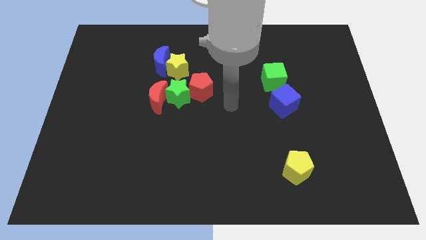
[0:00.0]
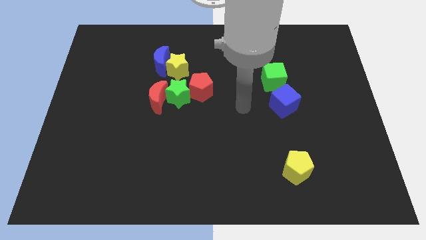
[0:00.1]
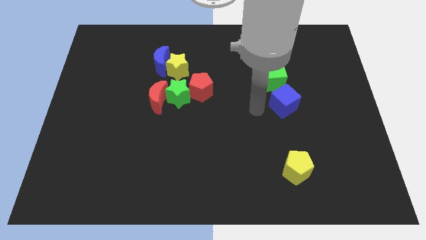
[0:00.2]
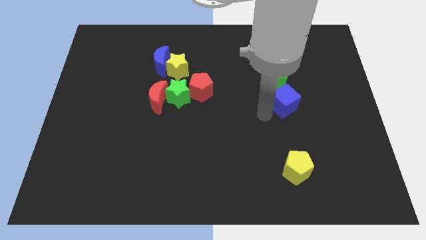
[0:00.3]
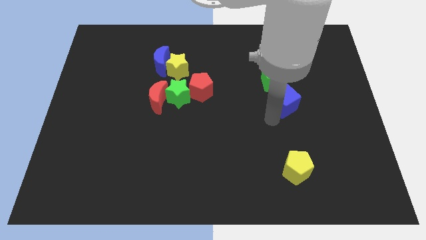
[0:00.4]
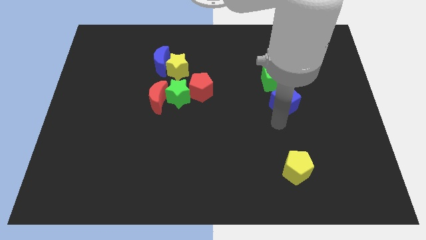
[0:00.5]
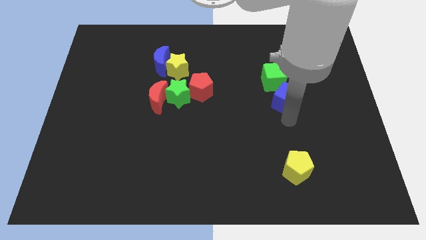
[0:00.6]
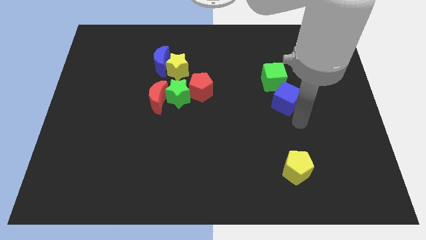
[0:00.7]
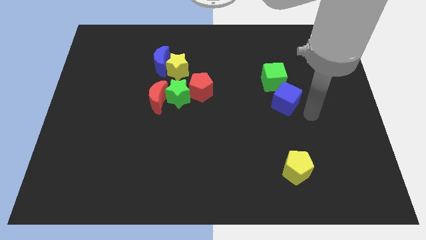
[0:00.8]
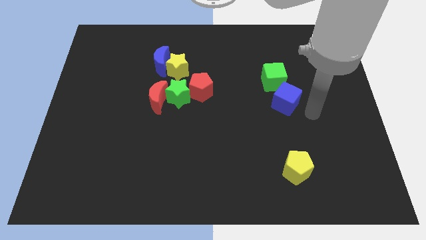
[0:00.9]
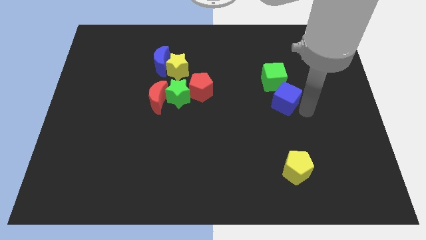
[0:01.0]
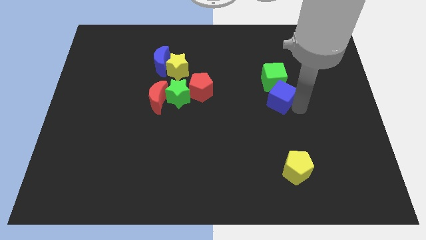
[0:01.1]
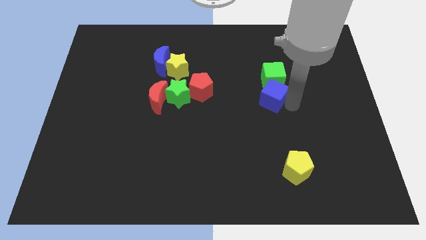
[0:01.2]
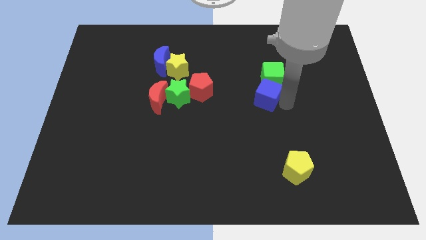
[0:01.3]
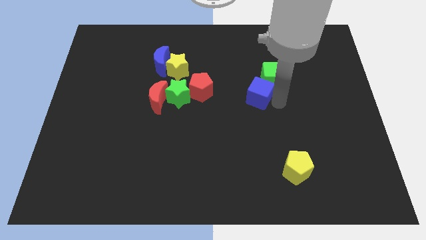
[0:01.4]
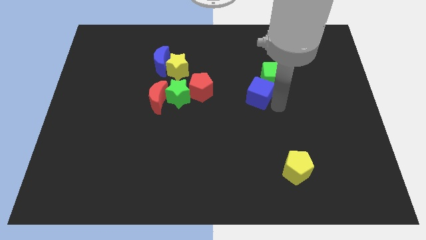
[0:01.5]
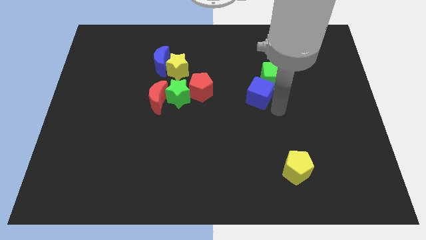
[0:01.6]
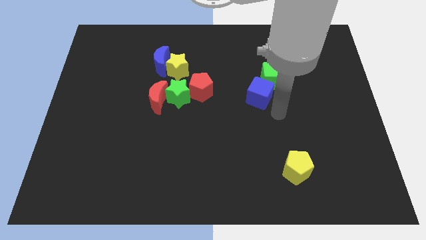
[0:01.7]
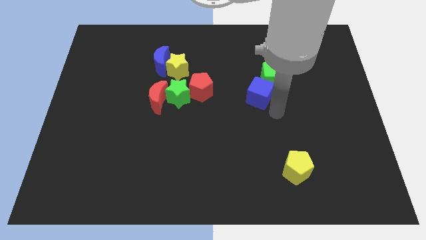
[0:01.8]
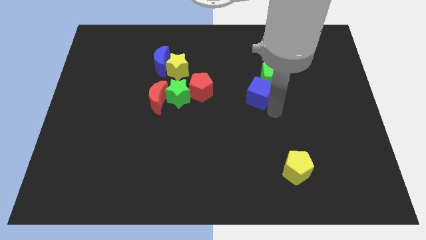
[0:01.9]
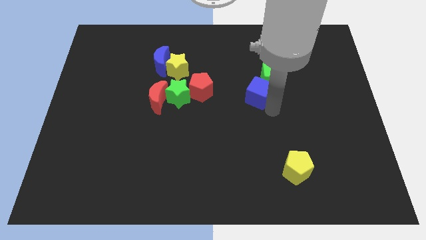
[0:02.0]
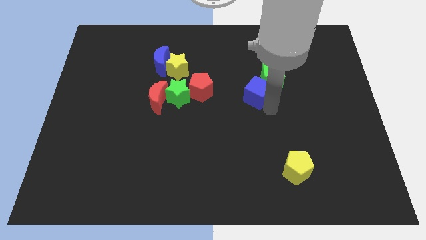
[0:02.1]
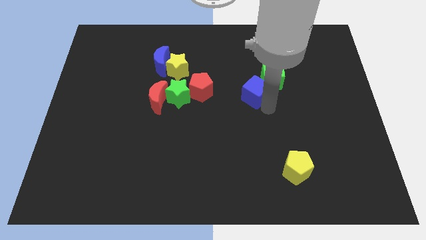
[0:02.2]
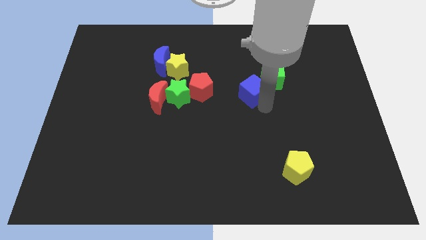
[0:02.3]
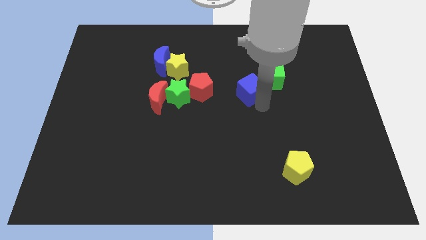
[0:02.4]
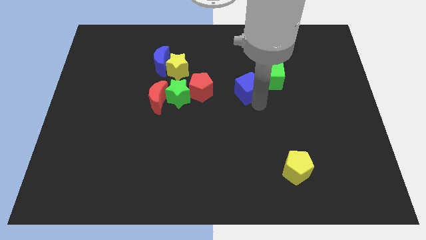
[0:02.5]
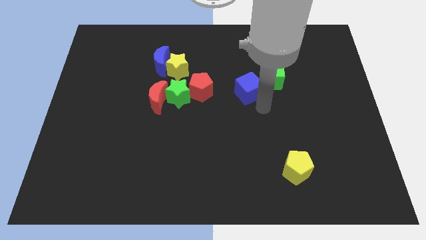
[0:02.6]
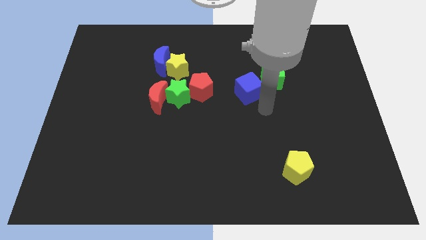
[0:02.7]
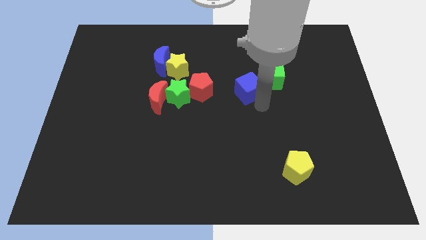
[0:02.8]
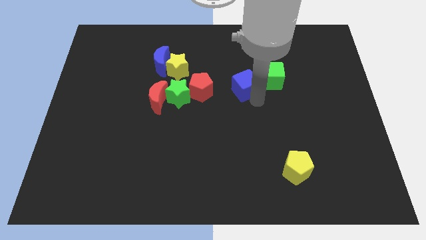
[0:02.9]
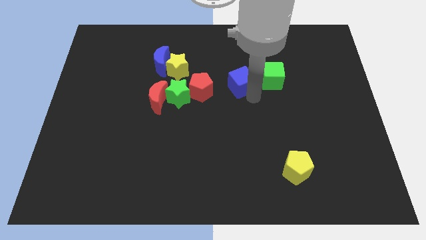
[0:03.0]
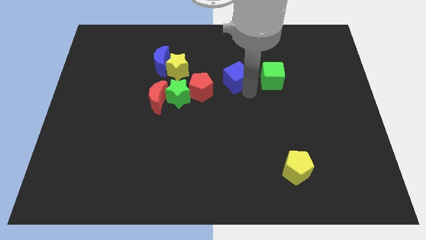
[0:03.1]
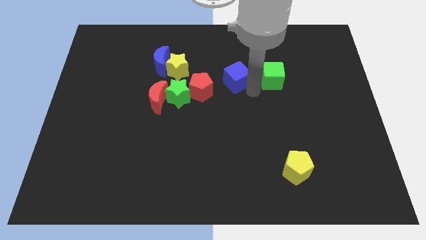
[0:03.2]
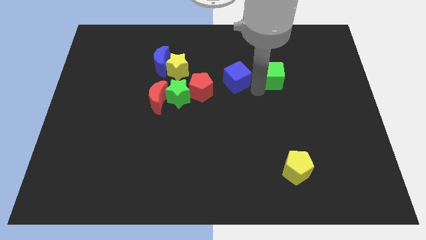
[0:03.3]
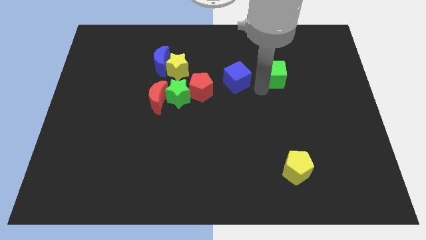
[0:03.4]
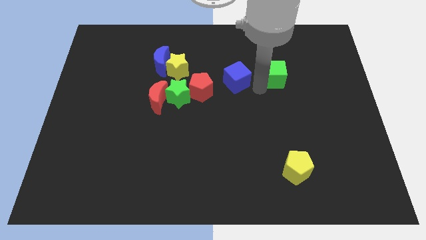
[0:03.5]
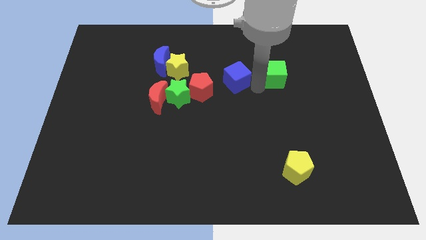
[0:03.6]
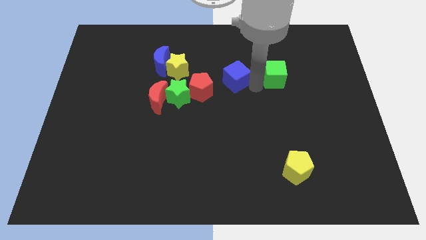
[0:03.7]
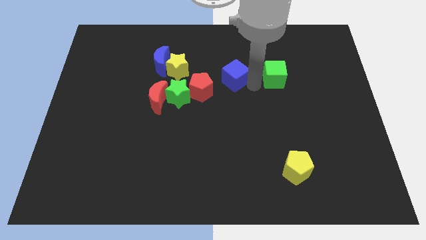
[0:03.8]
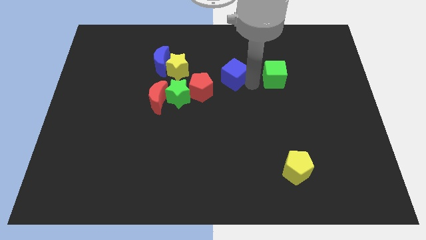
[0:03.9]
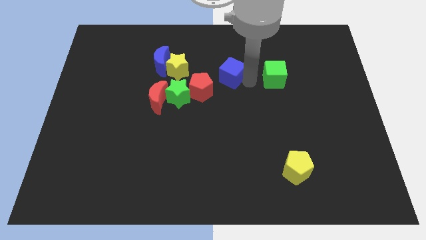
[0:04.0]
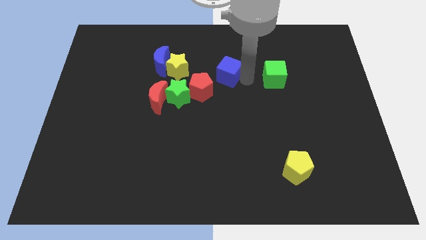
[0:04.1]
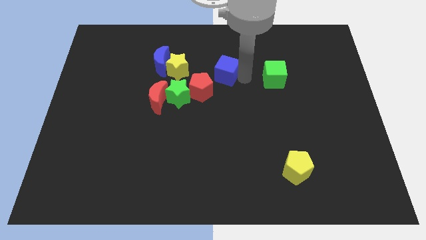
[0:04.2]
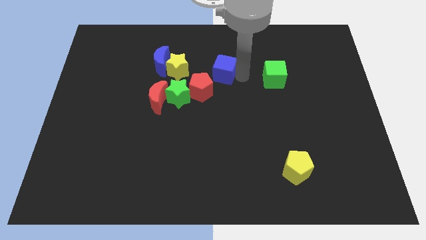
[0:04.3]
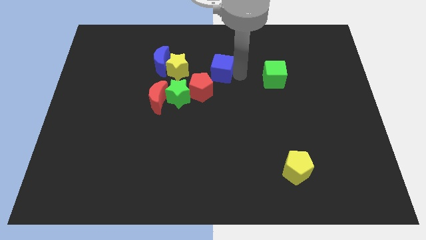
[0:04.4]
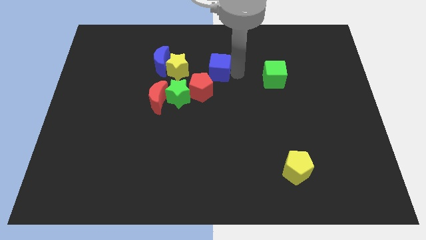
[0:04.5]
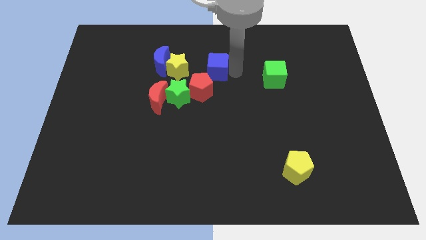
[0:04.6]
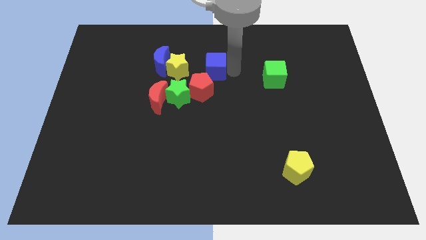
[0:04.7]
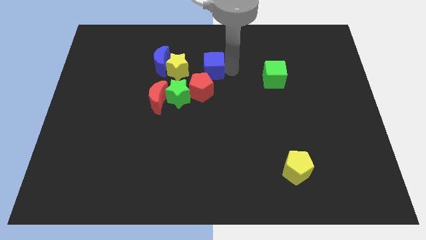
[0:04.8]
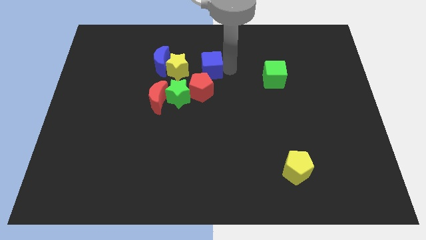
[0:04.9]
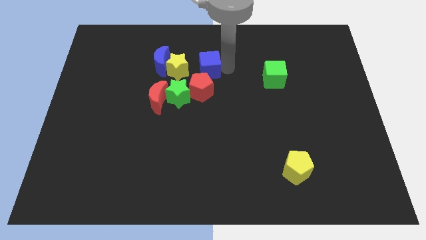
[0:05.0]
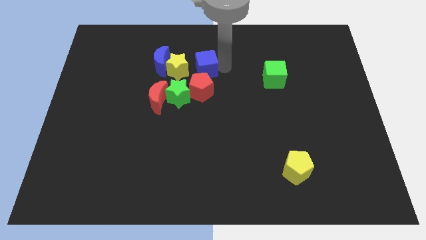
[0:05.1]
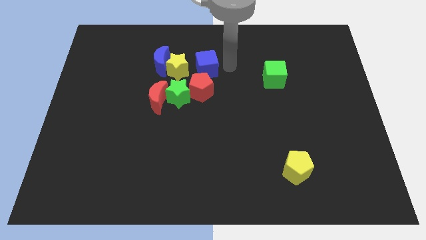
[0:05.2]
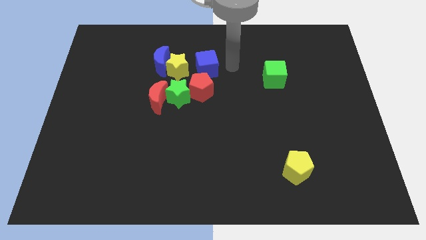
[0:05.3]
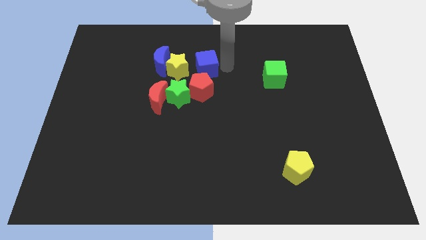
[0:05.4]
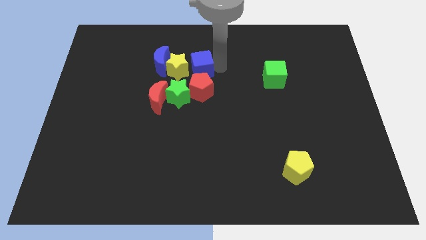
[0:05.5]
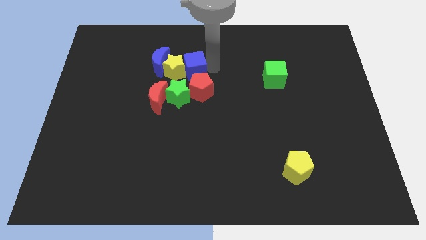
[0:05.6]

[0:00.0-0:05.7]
move the blue cube close to the yellow star

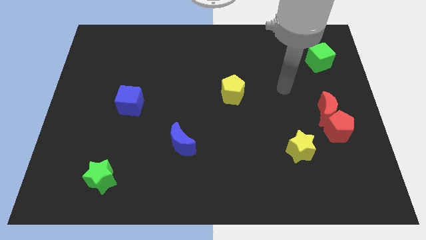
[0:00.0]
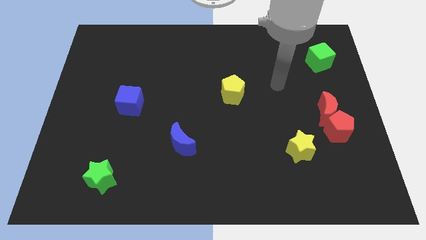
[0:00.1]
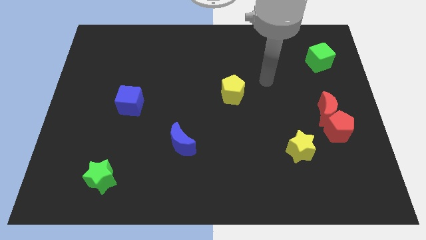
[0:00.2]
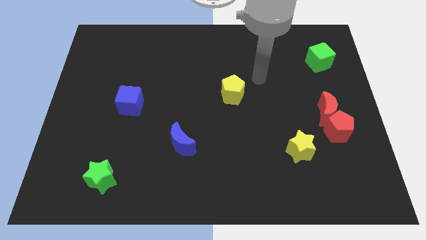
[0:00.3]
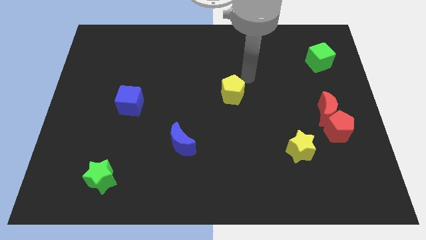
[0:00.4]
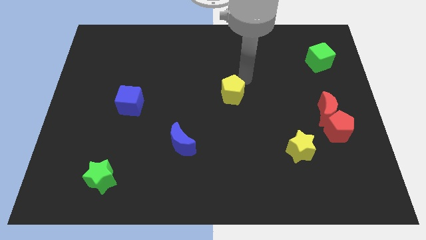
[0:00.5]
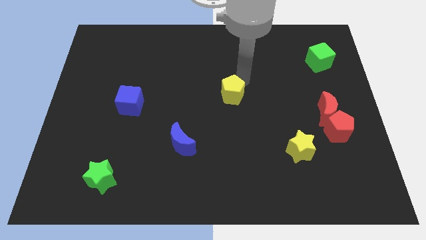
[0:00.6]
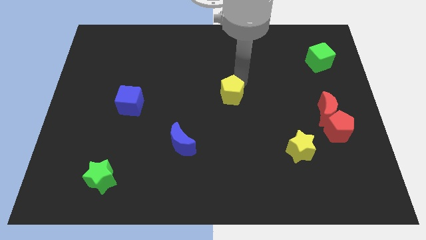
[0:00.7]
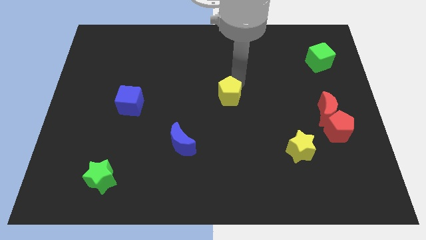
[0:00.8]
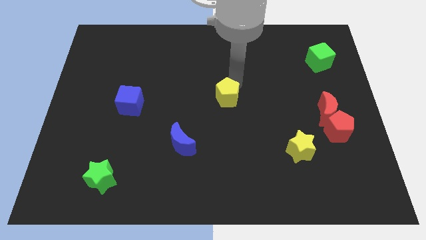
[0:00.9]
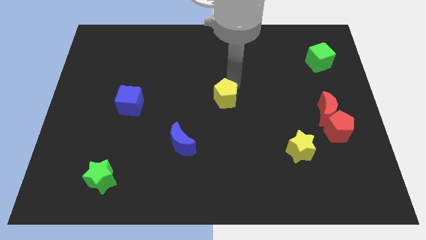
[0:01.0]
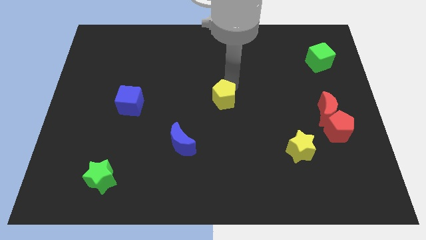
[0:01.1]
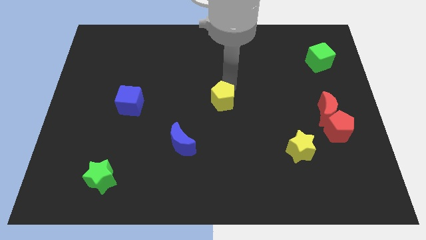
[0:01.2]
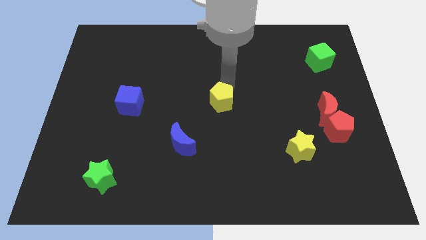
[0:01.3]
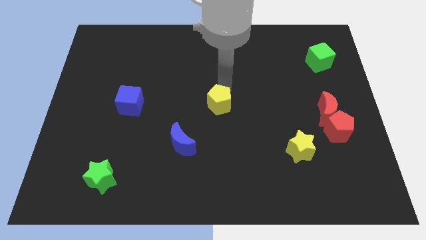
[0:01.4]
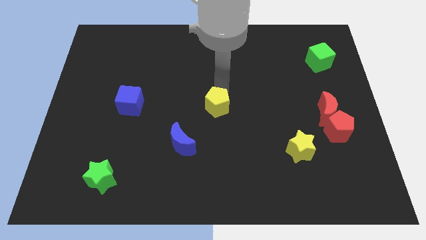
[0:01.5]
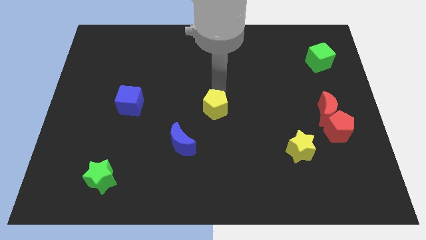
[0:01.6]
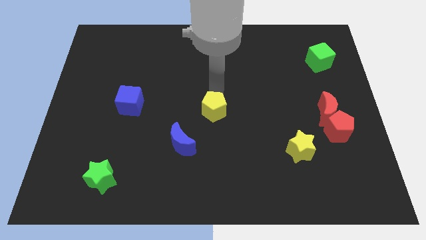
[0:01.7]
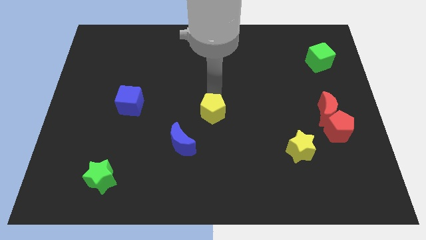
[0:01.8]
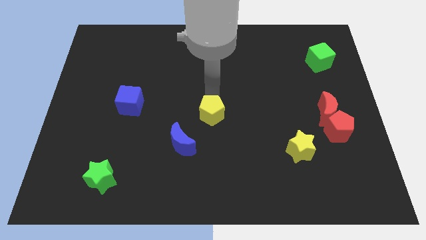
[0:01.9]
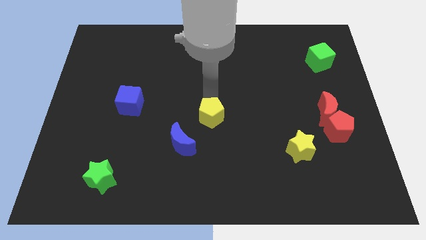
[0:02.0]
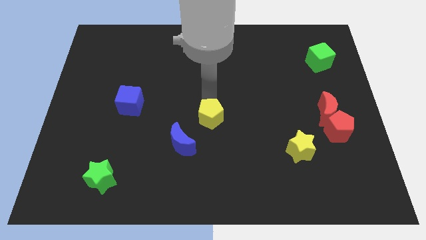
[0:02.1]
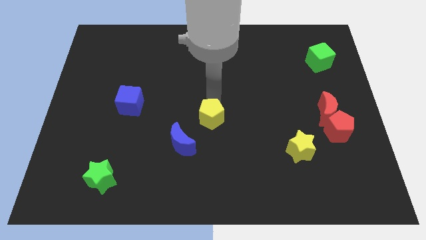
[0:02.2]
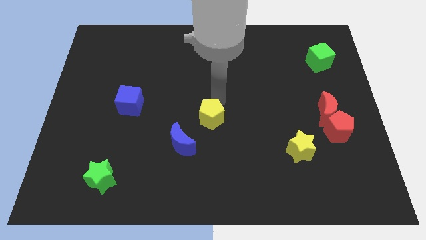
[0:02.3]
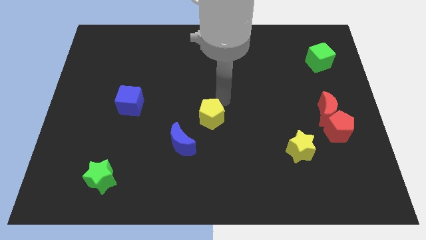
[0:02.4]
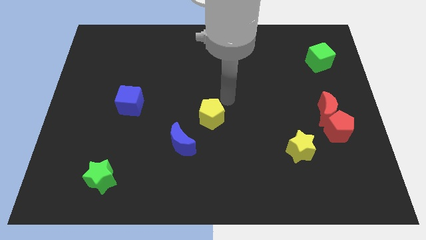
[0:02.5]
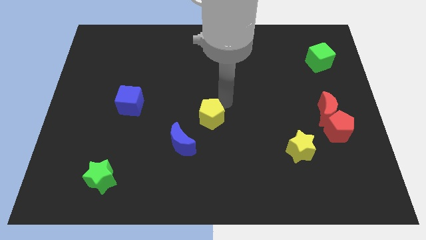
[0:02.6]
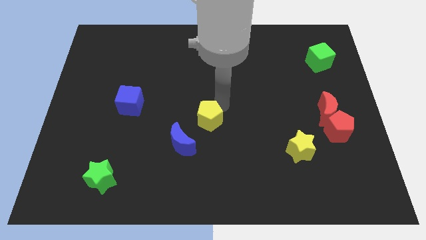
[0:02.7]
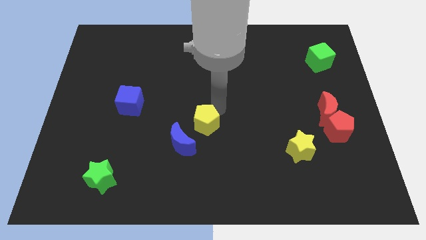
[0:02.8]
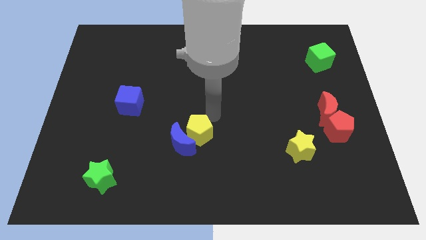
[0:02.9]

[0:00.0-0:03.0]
put the yellow pentagon close to the blue moon
